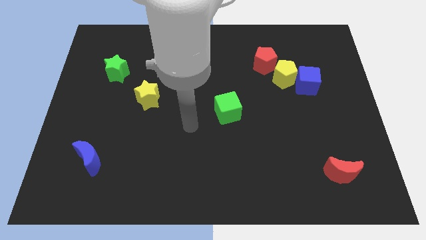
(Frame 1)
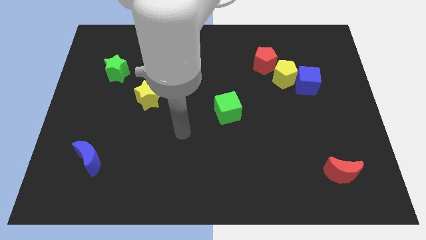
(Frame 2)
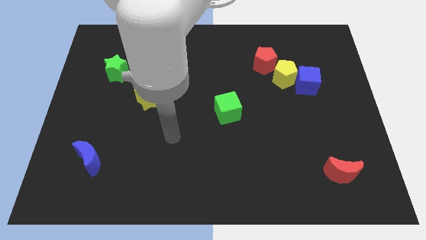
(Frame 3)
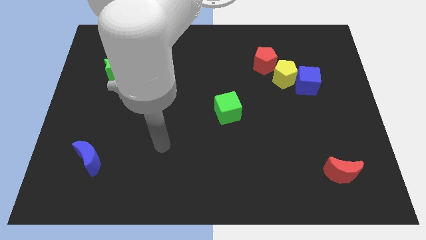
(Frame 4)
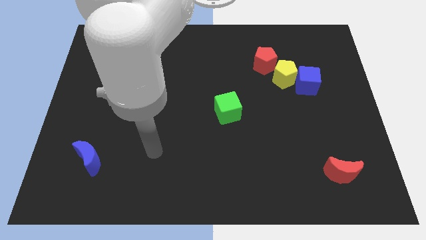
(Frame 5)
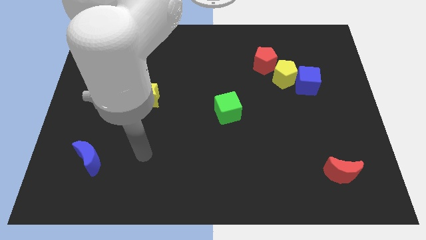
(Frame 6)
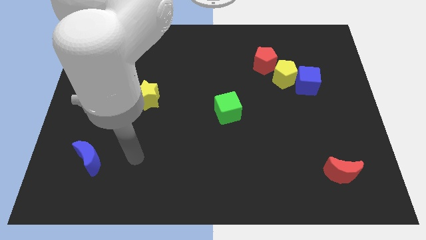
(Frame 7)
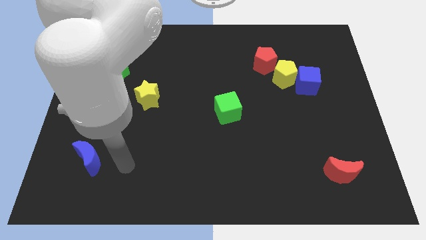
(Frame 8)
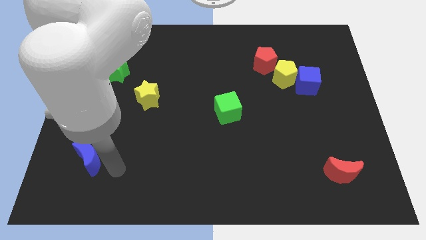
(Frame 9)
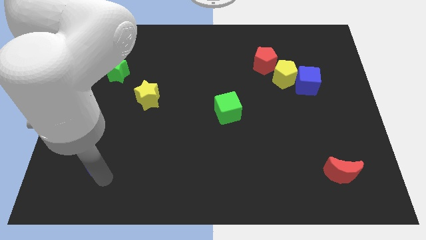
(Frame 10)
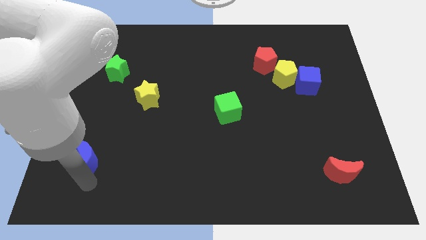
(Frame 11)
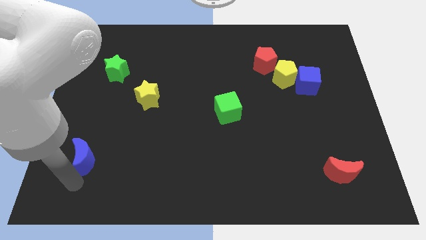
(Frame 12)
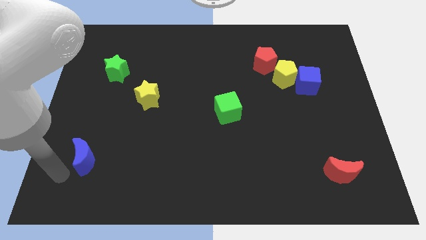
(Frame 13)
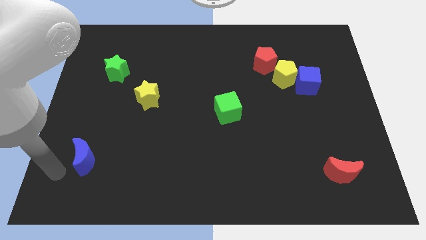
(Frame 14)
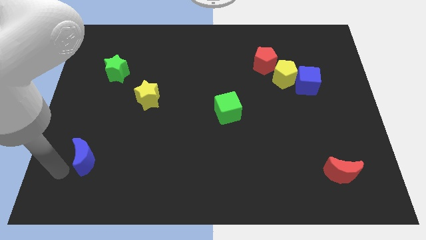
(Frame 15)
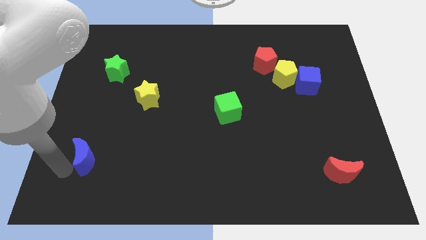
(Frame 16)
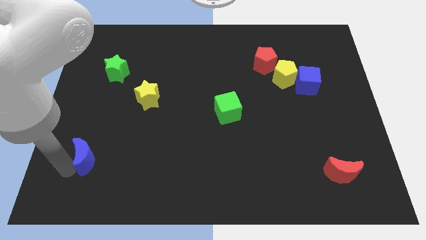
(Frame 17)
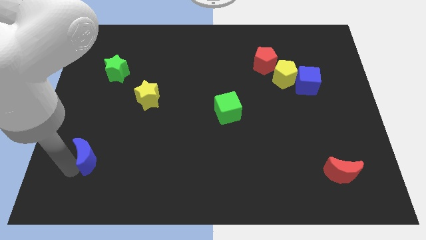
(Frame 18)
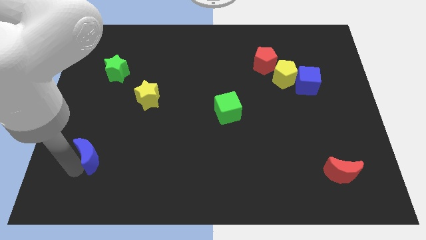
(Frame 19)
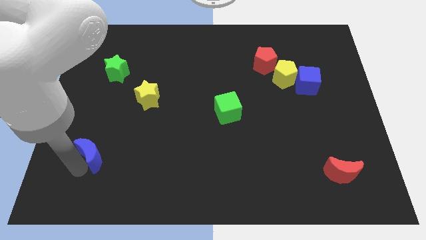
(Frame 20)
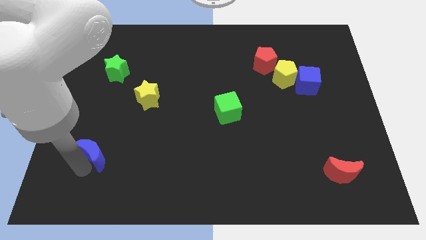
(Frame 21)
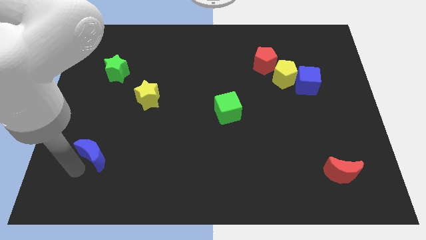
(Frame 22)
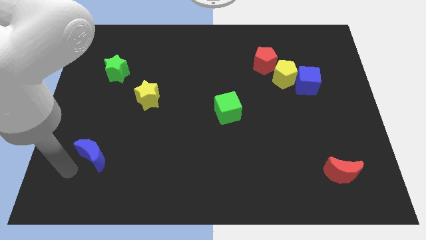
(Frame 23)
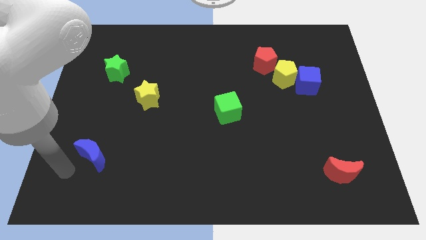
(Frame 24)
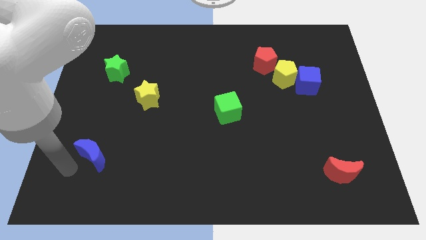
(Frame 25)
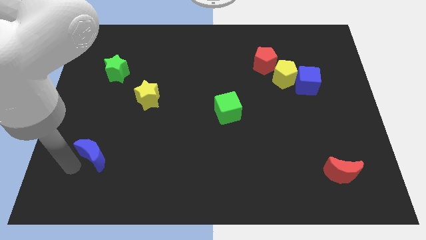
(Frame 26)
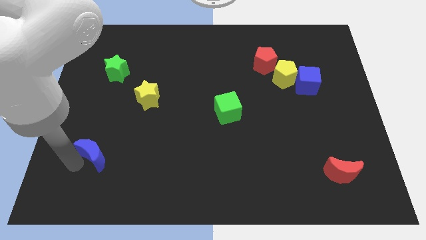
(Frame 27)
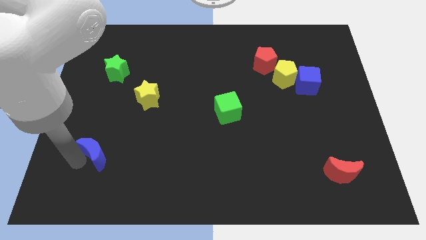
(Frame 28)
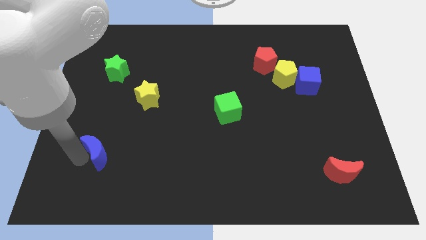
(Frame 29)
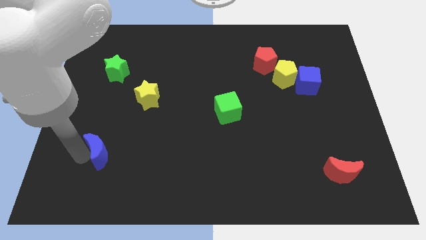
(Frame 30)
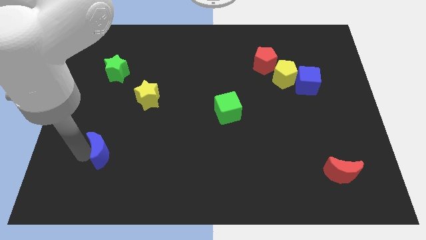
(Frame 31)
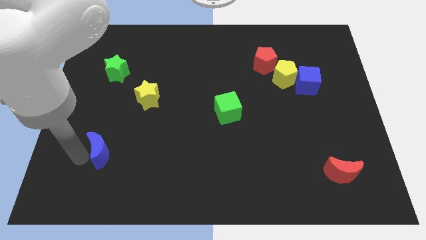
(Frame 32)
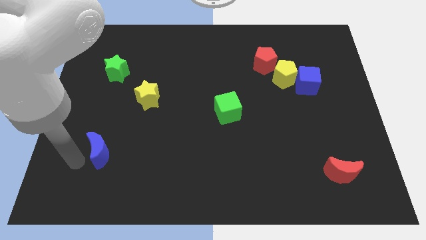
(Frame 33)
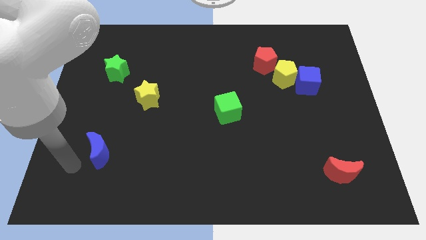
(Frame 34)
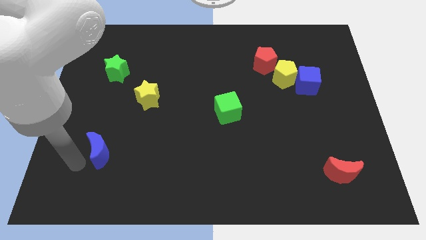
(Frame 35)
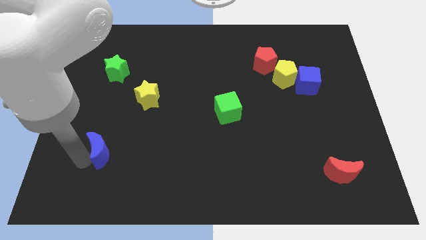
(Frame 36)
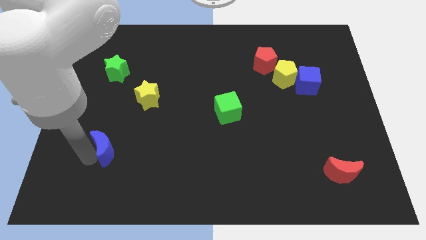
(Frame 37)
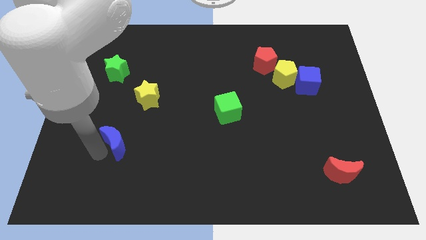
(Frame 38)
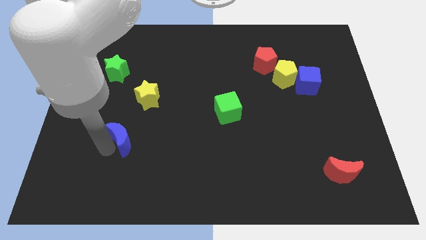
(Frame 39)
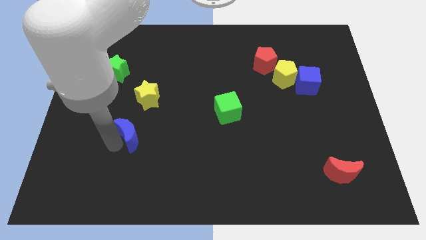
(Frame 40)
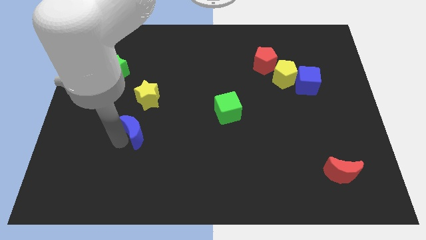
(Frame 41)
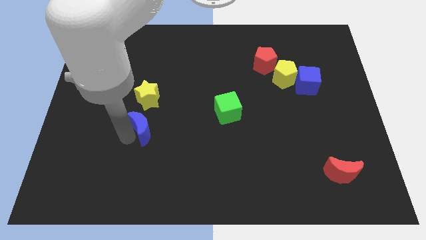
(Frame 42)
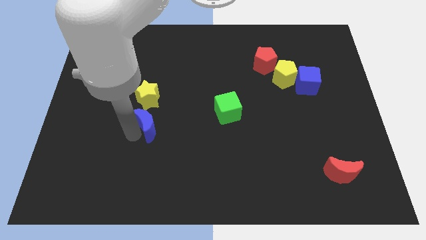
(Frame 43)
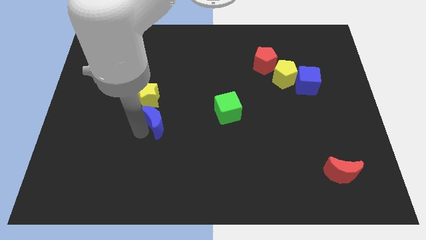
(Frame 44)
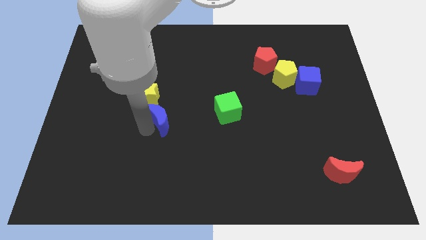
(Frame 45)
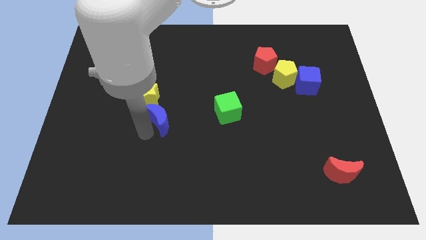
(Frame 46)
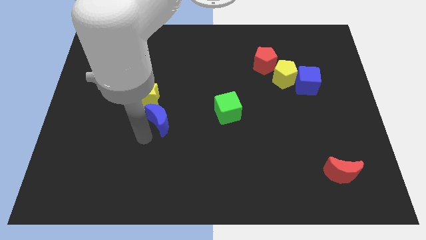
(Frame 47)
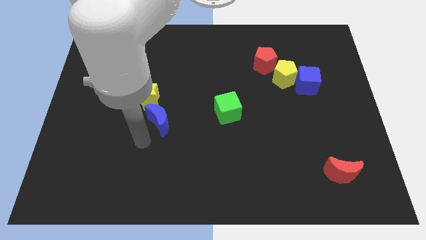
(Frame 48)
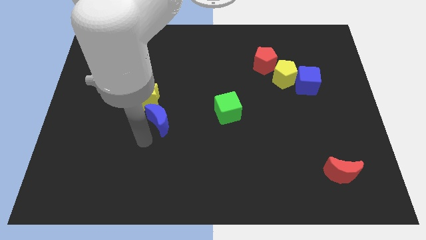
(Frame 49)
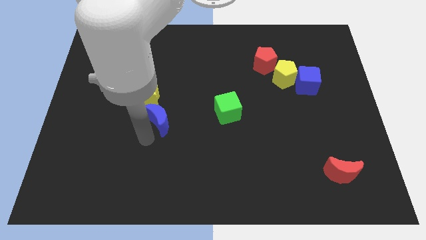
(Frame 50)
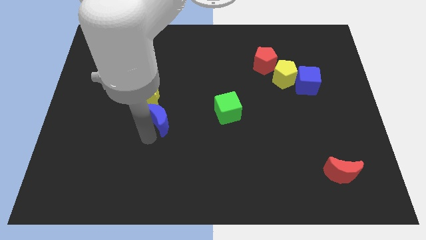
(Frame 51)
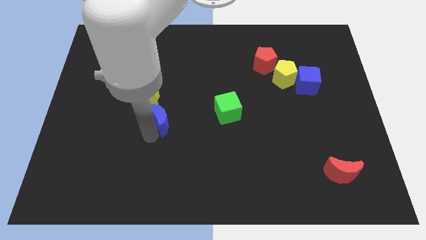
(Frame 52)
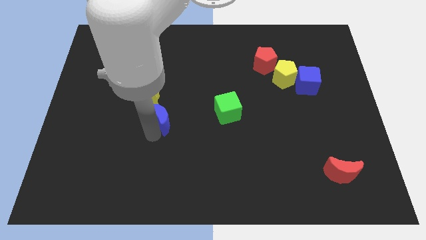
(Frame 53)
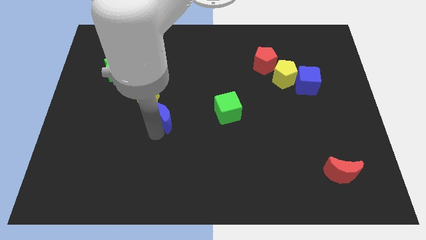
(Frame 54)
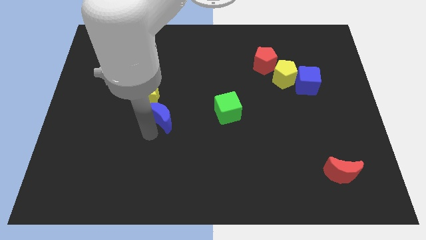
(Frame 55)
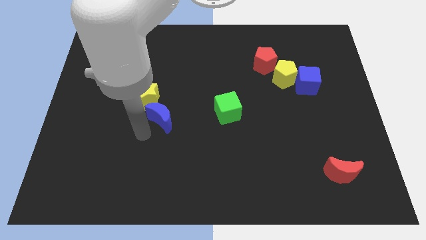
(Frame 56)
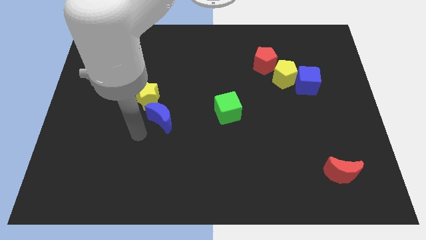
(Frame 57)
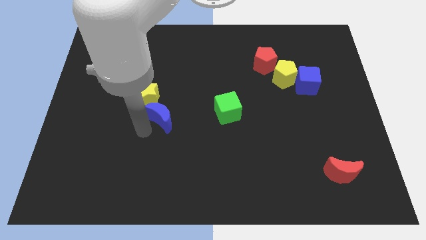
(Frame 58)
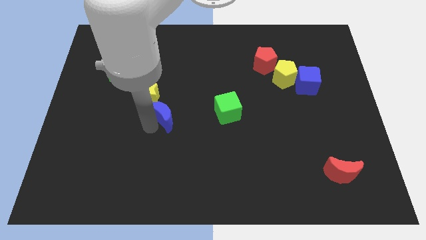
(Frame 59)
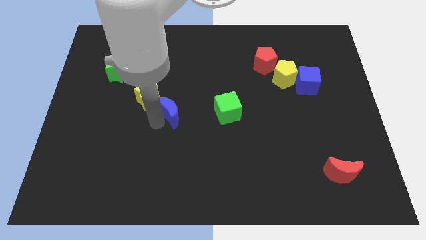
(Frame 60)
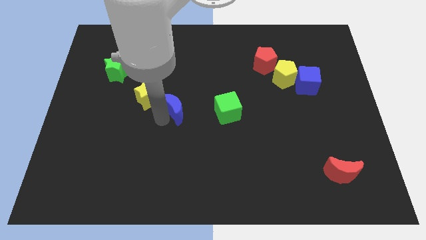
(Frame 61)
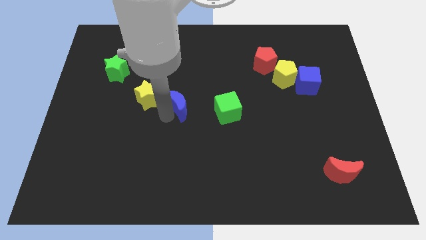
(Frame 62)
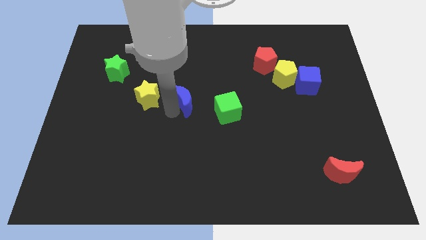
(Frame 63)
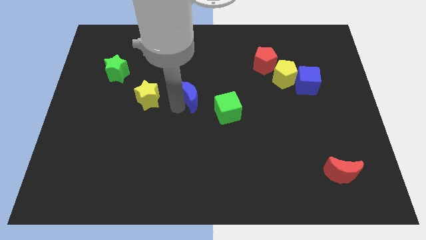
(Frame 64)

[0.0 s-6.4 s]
push the blue moon diagonally up and to the left of the green cube
